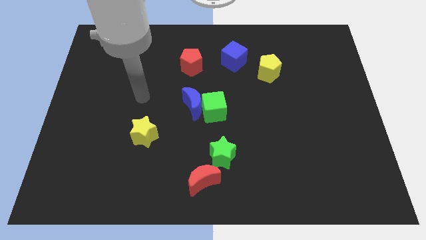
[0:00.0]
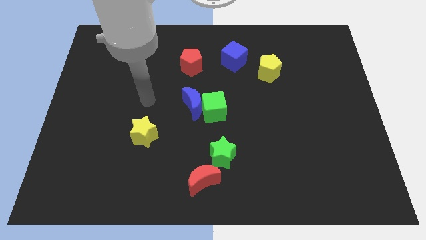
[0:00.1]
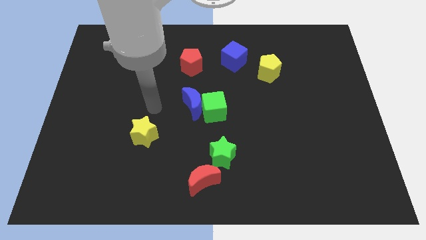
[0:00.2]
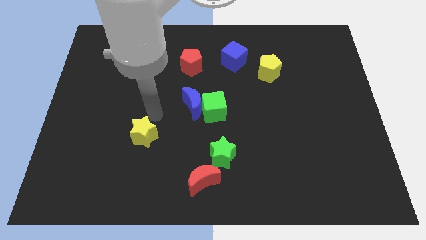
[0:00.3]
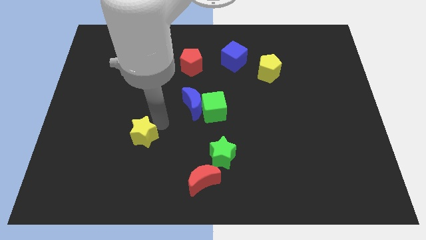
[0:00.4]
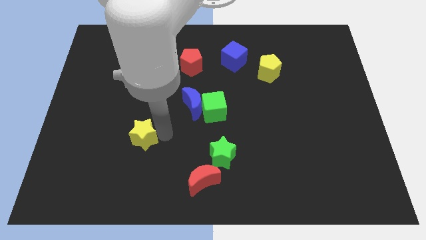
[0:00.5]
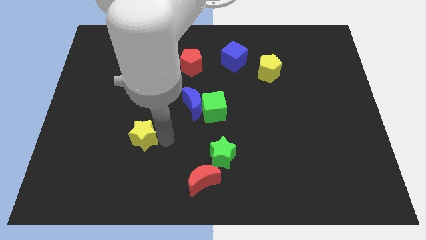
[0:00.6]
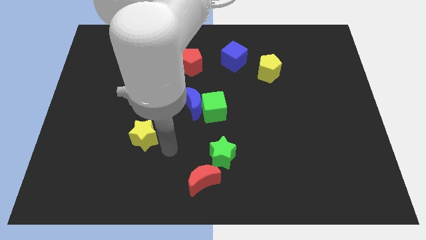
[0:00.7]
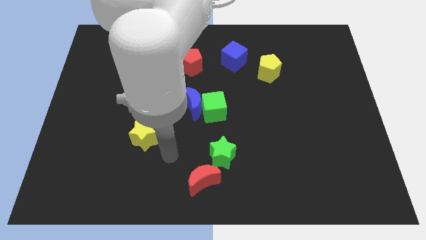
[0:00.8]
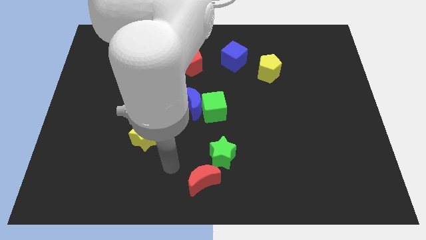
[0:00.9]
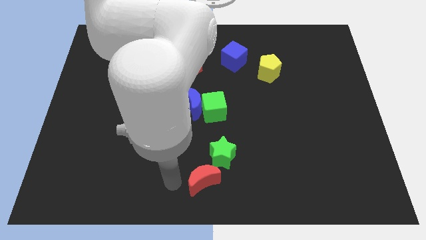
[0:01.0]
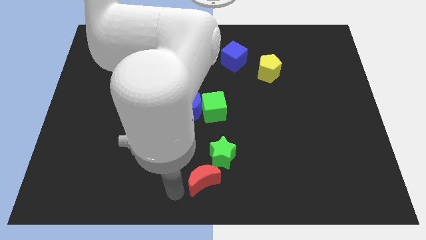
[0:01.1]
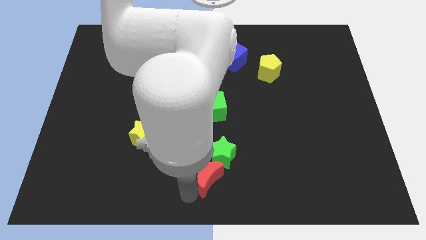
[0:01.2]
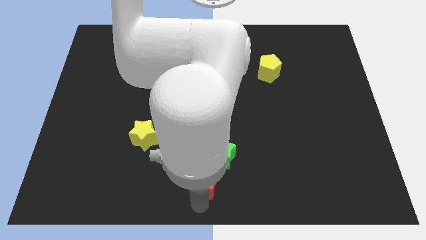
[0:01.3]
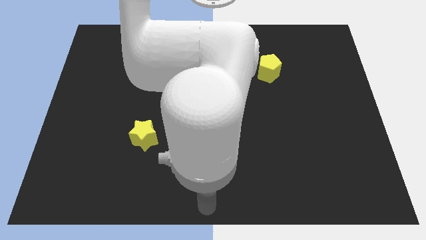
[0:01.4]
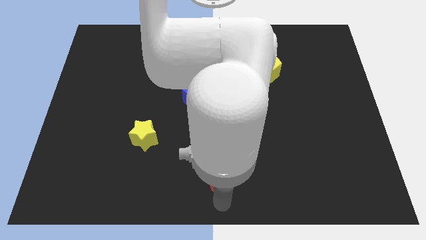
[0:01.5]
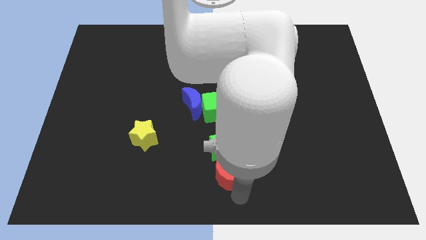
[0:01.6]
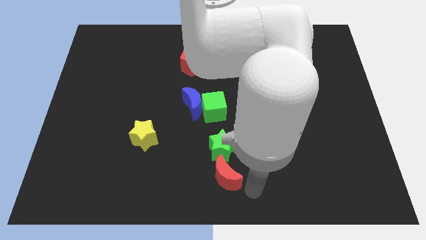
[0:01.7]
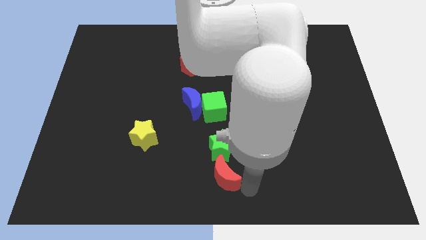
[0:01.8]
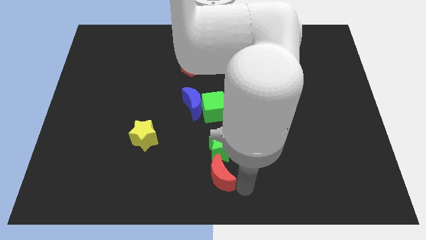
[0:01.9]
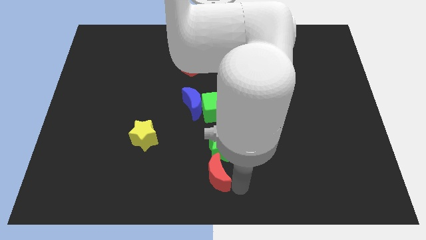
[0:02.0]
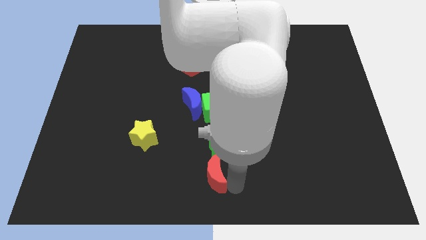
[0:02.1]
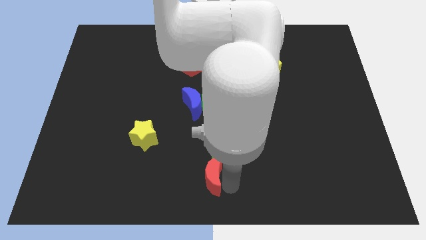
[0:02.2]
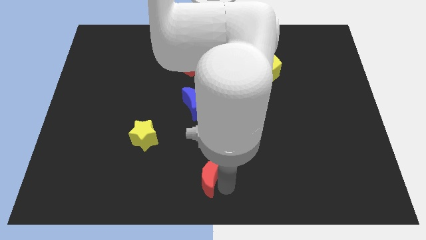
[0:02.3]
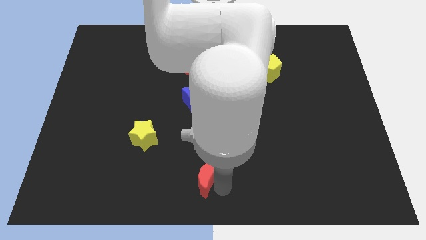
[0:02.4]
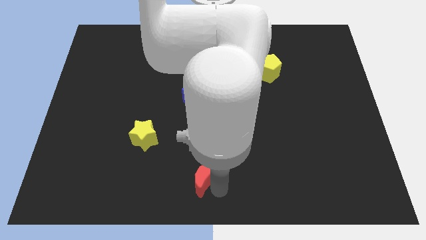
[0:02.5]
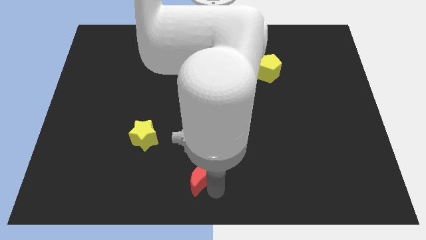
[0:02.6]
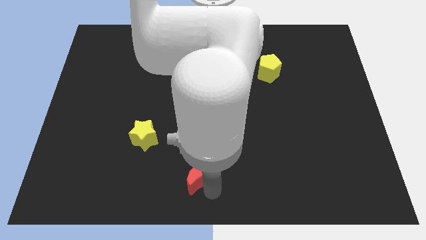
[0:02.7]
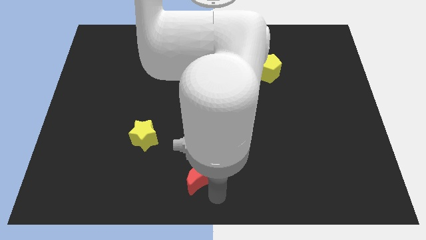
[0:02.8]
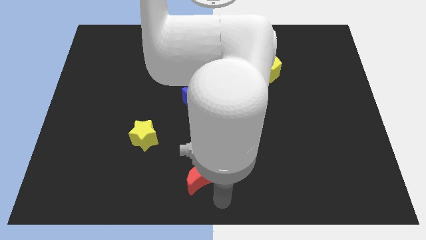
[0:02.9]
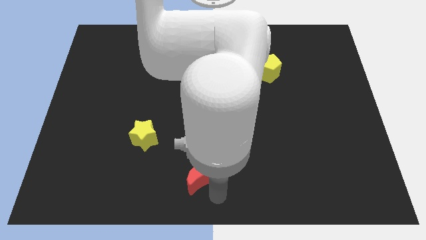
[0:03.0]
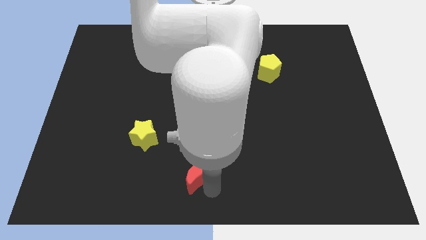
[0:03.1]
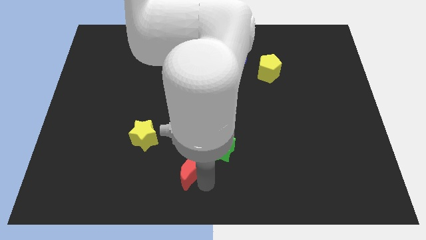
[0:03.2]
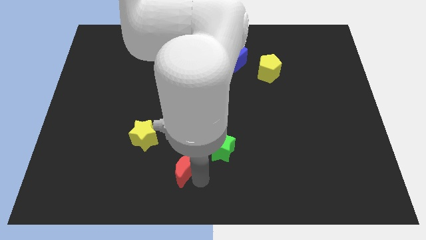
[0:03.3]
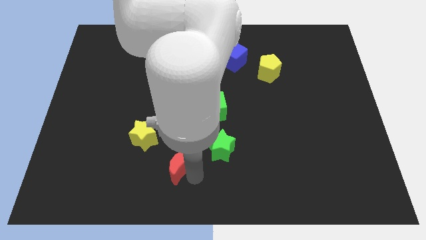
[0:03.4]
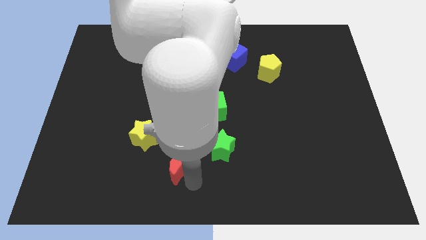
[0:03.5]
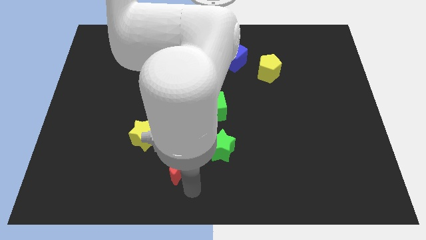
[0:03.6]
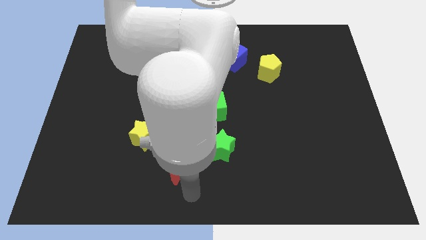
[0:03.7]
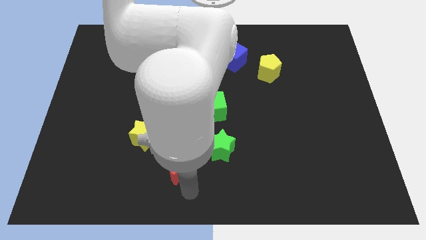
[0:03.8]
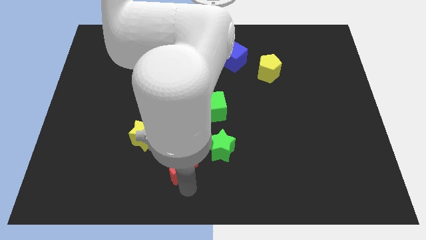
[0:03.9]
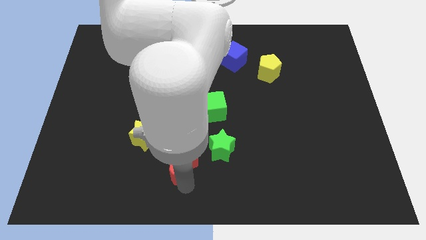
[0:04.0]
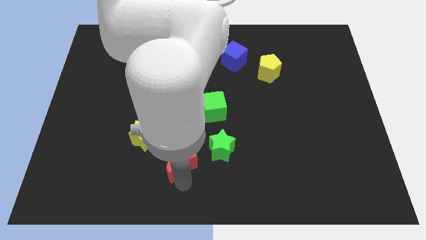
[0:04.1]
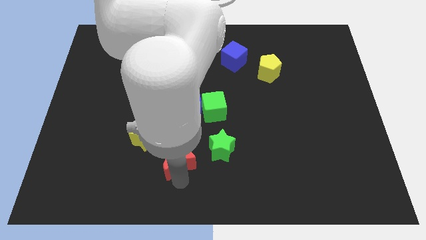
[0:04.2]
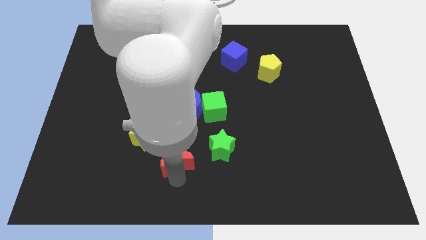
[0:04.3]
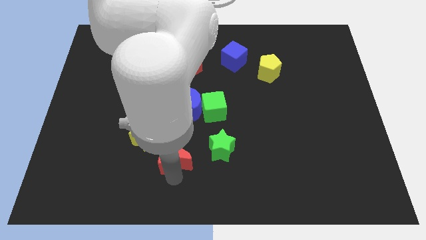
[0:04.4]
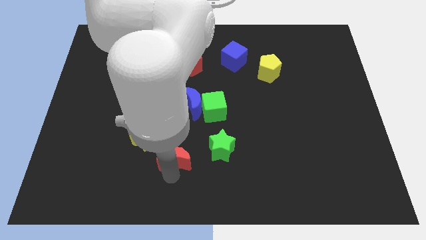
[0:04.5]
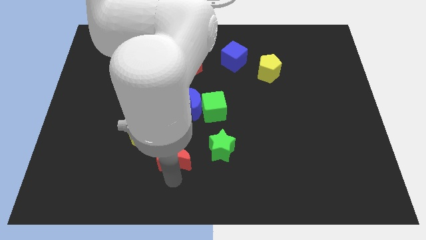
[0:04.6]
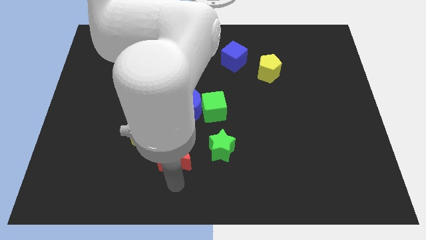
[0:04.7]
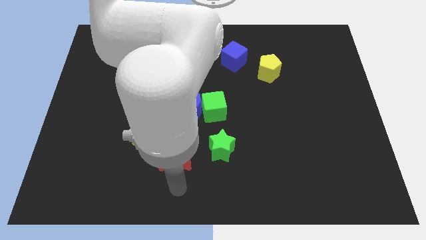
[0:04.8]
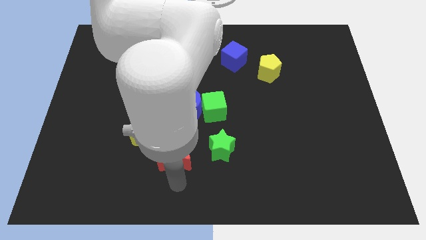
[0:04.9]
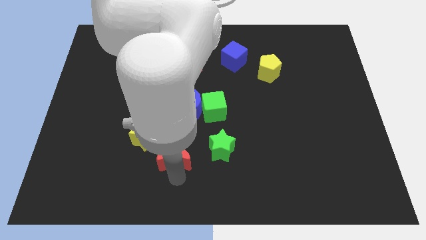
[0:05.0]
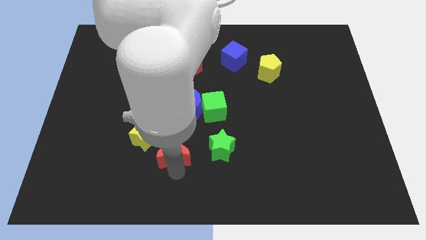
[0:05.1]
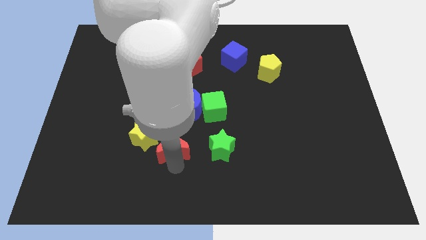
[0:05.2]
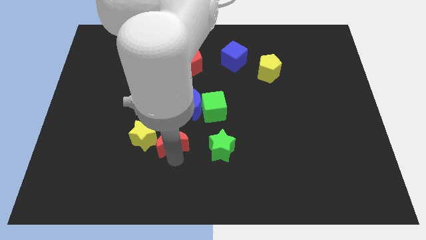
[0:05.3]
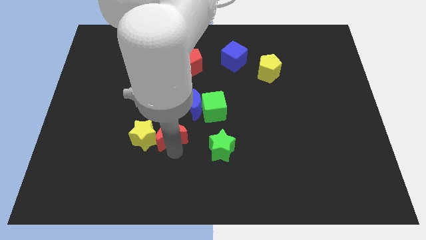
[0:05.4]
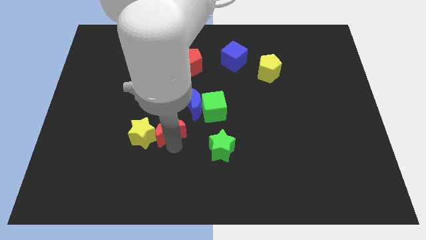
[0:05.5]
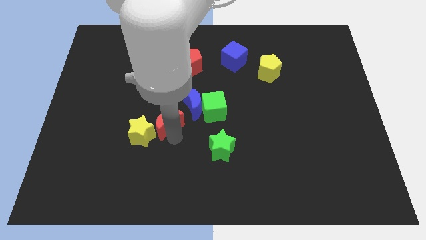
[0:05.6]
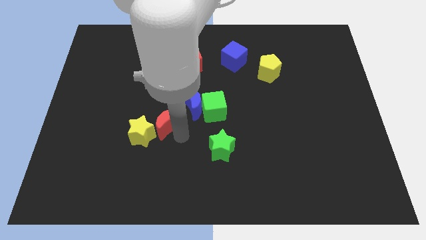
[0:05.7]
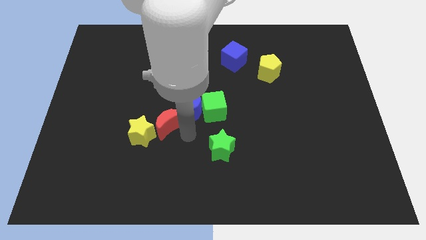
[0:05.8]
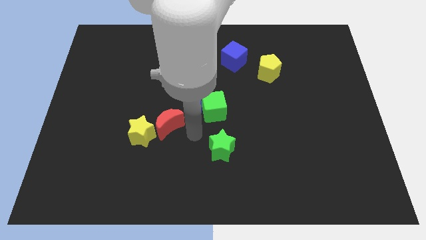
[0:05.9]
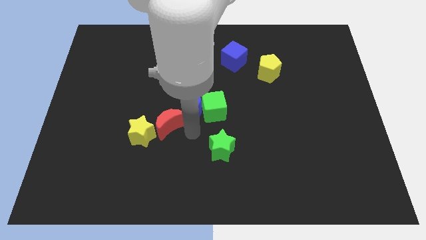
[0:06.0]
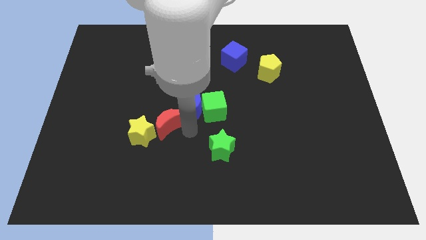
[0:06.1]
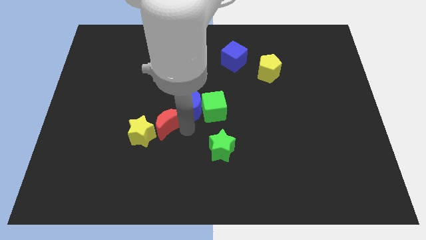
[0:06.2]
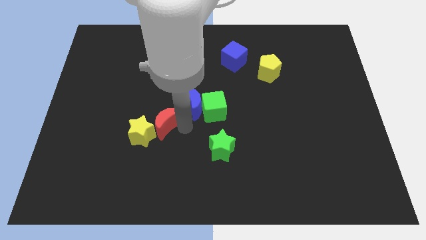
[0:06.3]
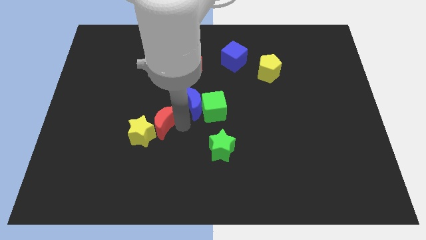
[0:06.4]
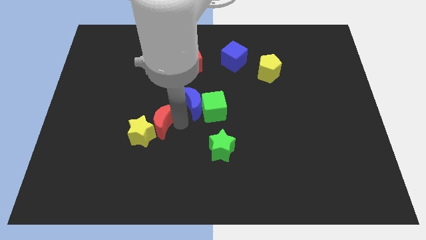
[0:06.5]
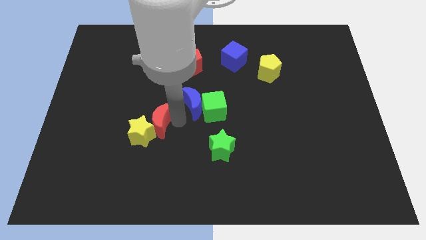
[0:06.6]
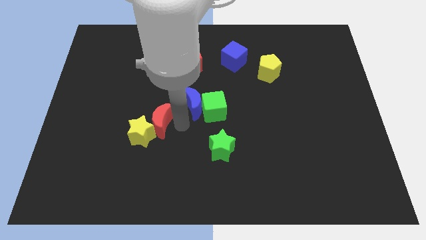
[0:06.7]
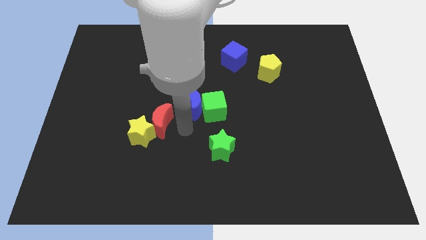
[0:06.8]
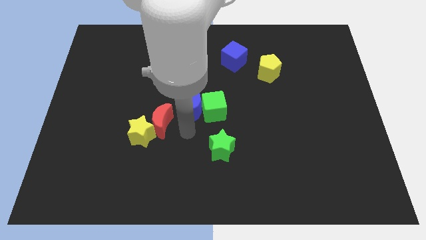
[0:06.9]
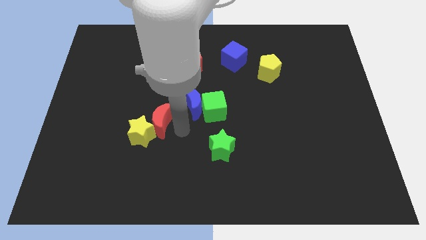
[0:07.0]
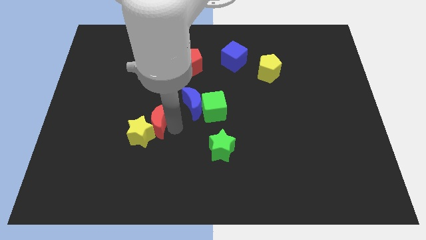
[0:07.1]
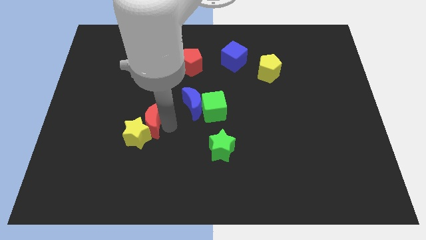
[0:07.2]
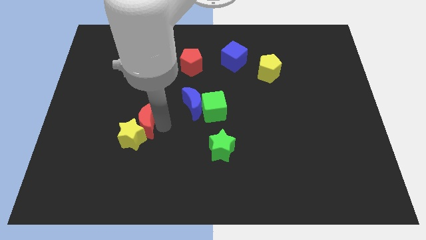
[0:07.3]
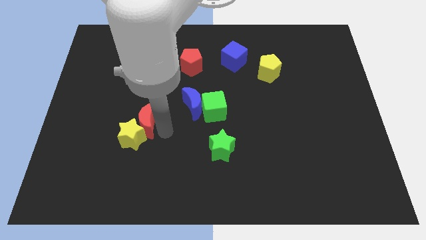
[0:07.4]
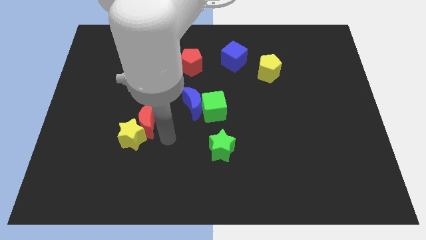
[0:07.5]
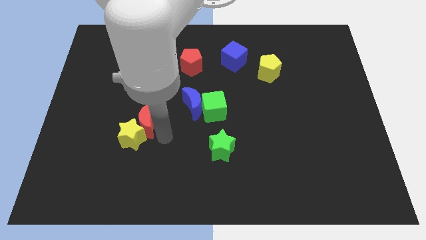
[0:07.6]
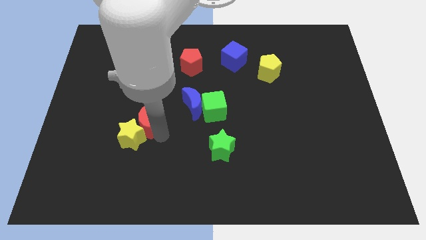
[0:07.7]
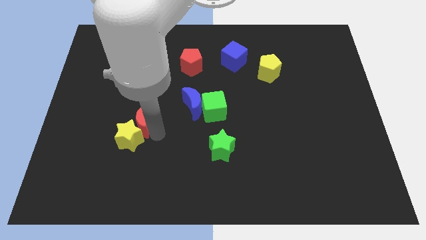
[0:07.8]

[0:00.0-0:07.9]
push the red moon up and to the left

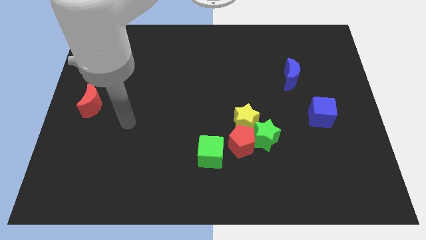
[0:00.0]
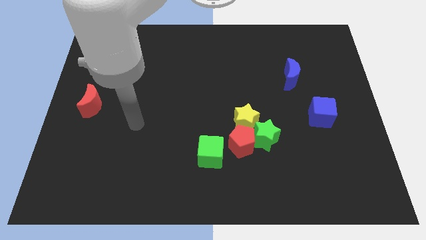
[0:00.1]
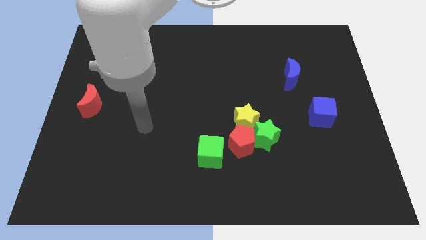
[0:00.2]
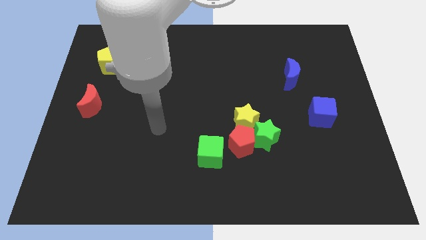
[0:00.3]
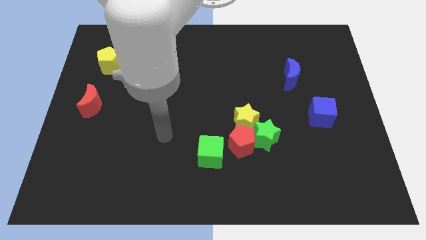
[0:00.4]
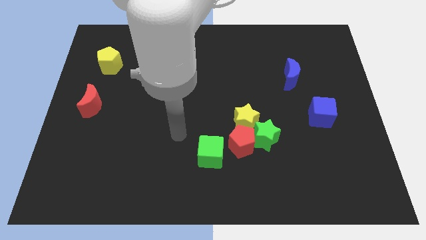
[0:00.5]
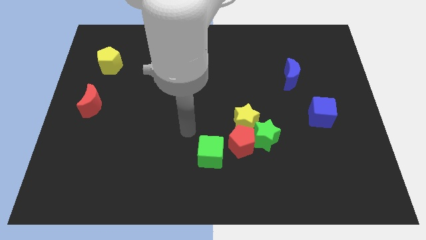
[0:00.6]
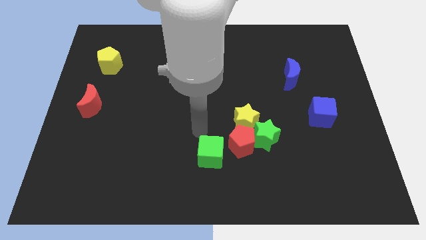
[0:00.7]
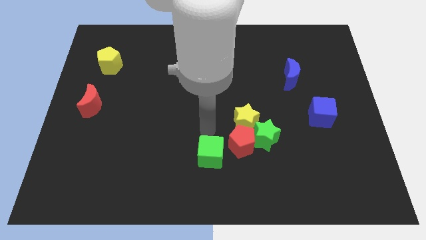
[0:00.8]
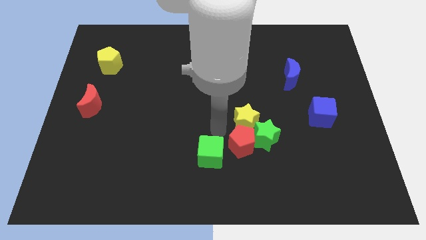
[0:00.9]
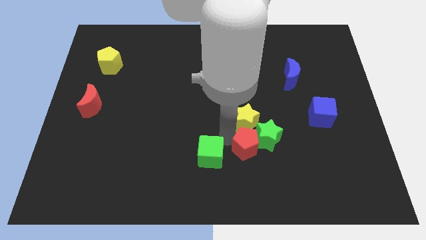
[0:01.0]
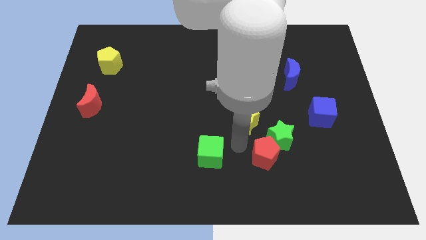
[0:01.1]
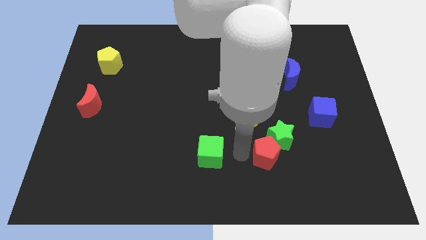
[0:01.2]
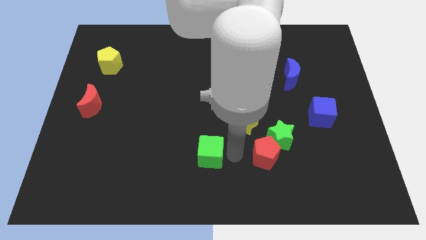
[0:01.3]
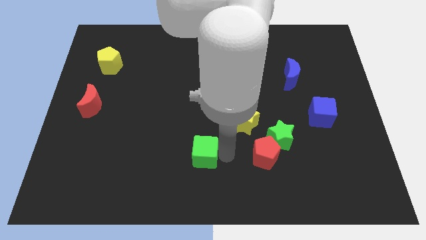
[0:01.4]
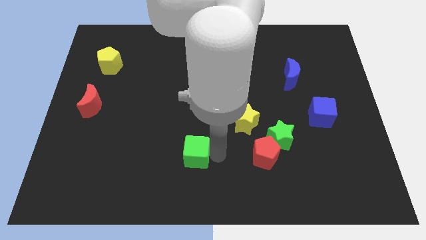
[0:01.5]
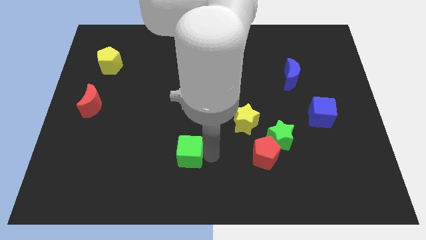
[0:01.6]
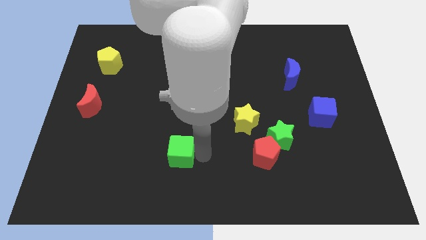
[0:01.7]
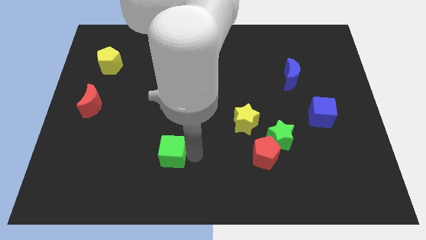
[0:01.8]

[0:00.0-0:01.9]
move the green cube to the left a bit
